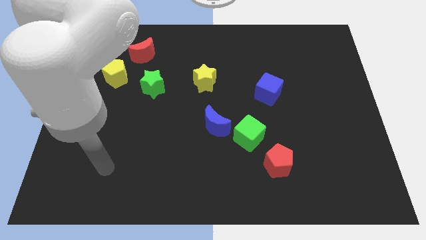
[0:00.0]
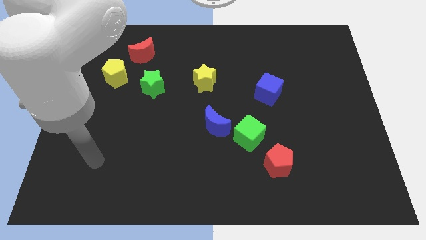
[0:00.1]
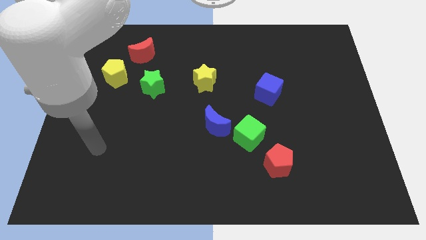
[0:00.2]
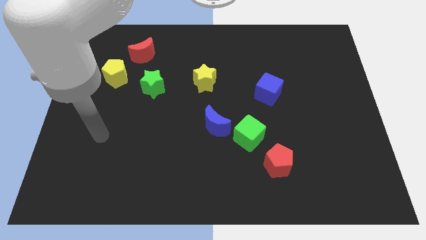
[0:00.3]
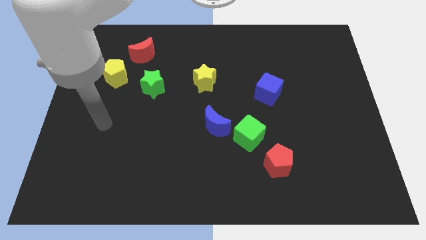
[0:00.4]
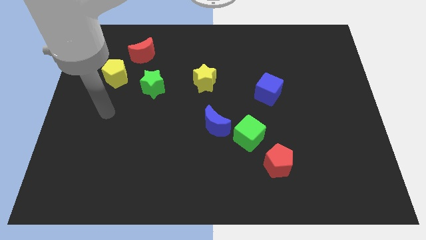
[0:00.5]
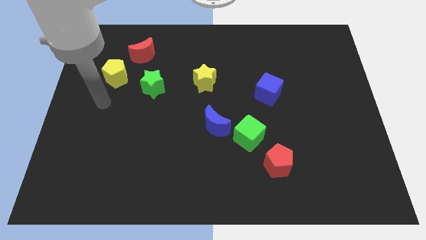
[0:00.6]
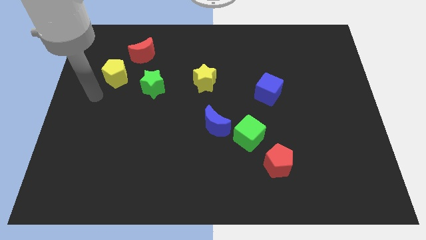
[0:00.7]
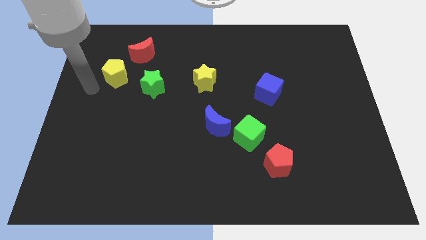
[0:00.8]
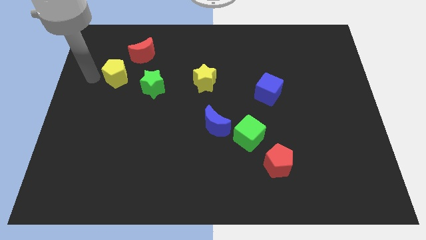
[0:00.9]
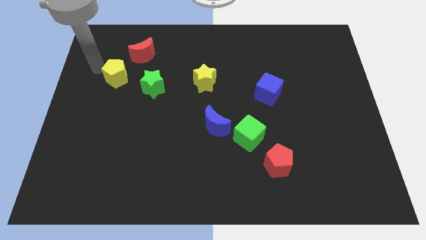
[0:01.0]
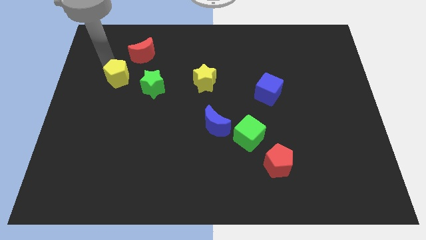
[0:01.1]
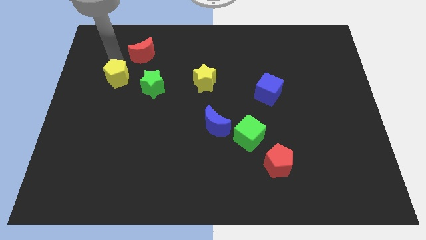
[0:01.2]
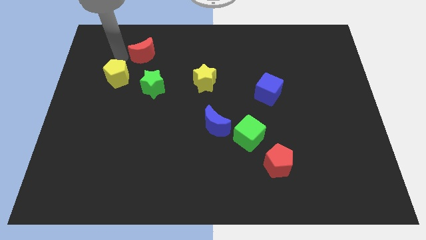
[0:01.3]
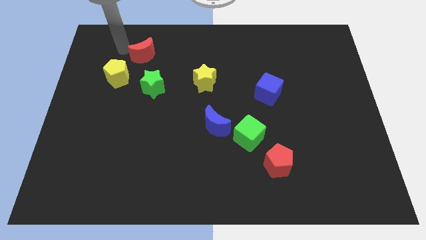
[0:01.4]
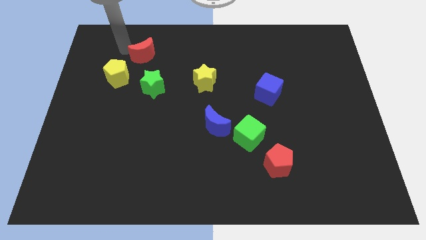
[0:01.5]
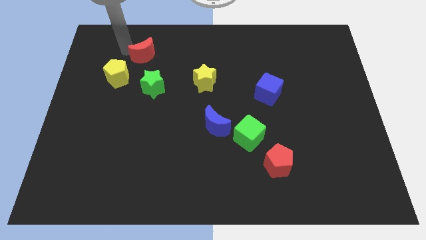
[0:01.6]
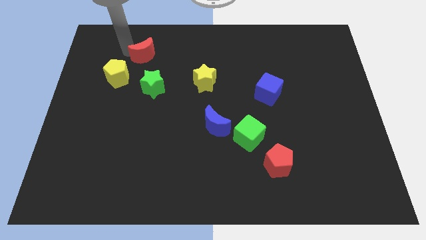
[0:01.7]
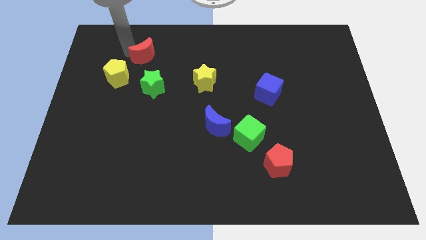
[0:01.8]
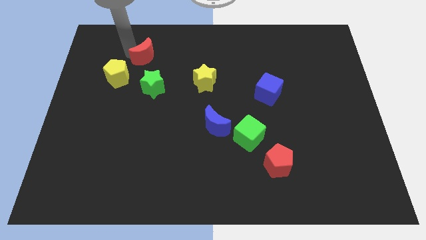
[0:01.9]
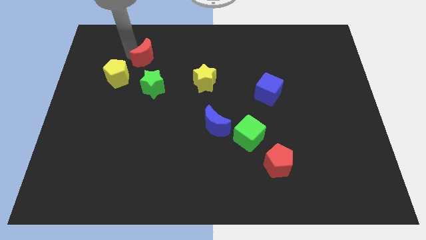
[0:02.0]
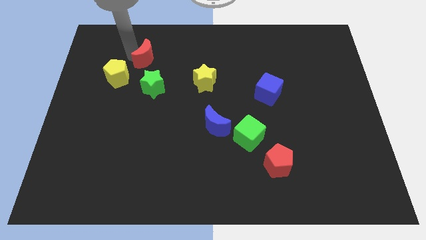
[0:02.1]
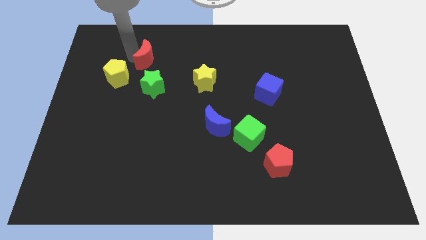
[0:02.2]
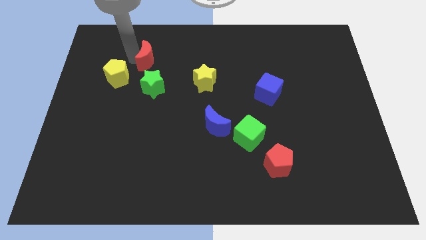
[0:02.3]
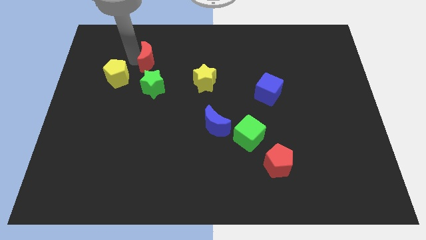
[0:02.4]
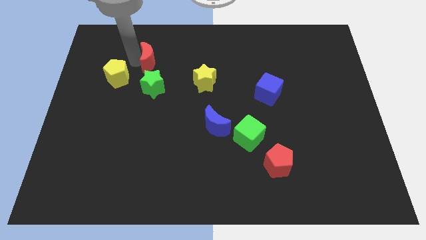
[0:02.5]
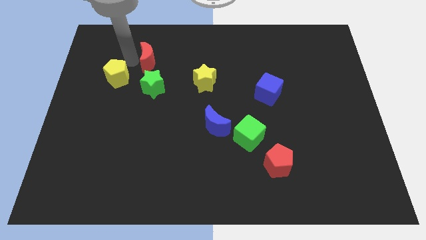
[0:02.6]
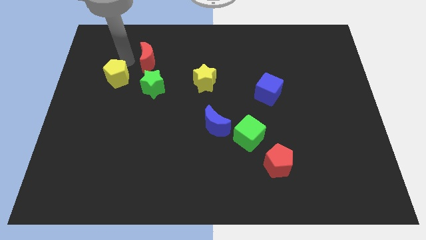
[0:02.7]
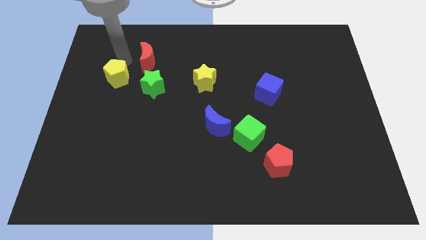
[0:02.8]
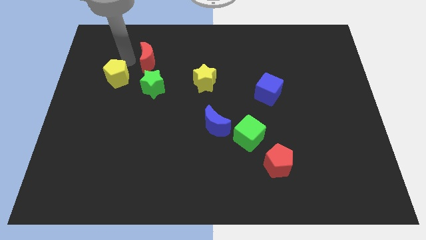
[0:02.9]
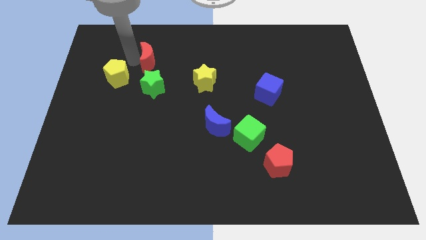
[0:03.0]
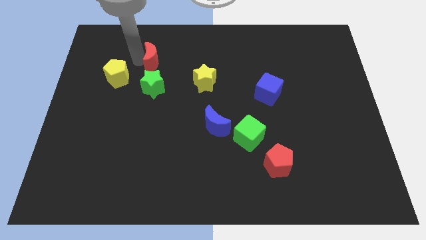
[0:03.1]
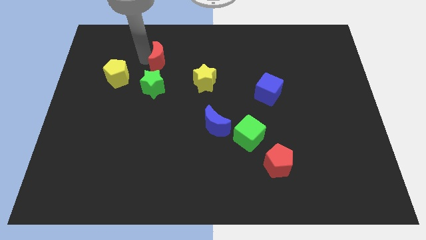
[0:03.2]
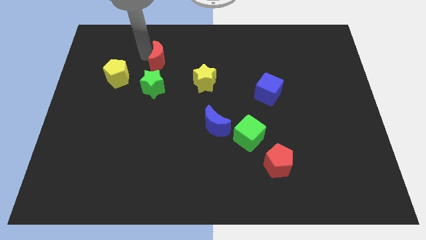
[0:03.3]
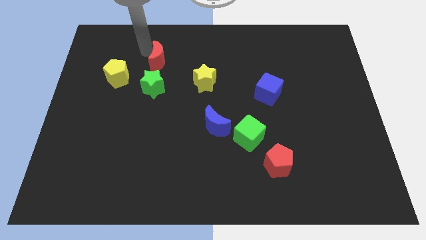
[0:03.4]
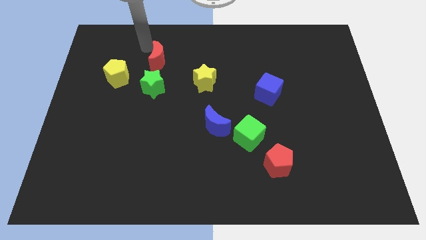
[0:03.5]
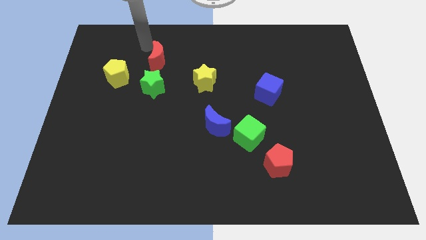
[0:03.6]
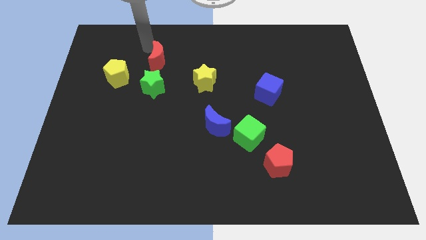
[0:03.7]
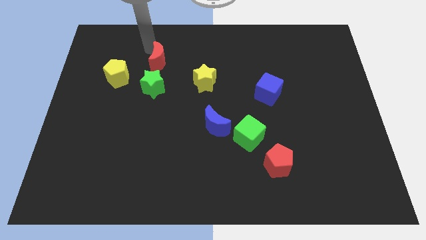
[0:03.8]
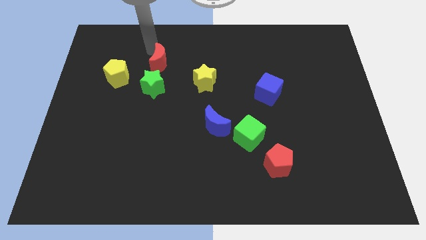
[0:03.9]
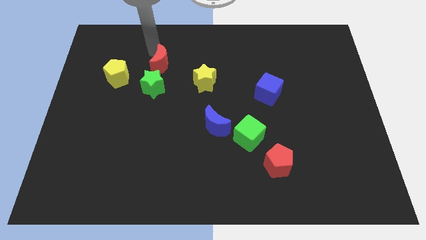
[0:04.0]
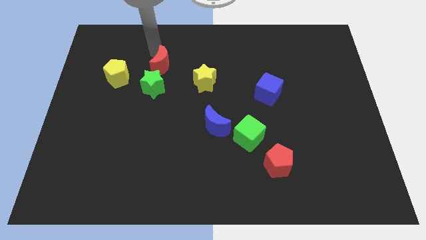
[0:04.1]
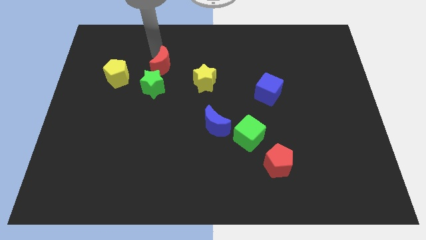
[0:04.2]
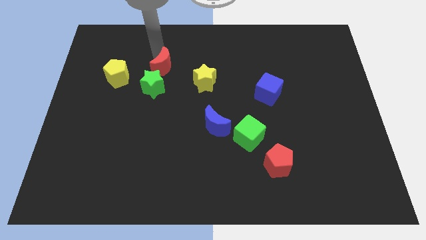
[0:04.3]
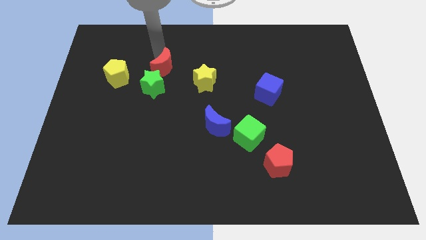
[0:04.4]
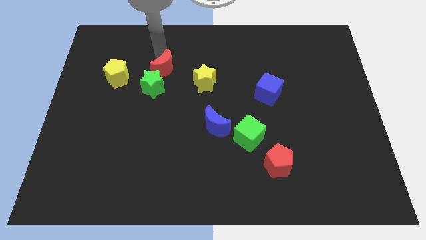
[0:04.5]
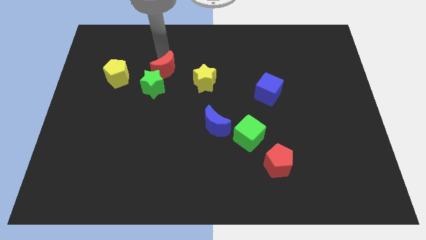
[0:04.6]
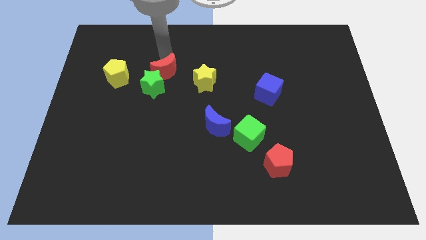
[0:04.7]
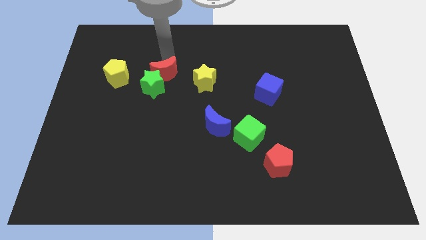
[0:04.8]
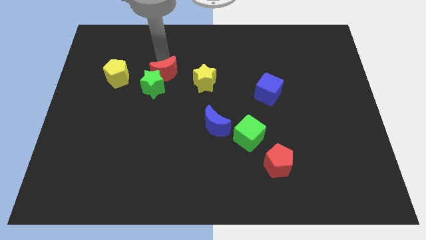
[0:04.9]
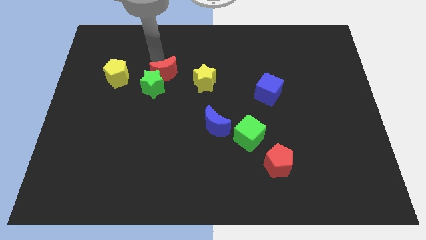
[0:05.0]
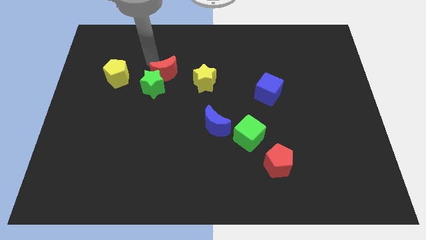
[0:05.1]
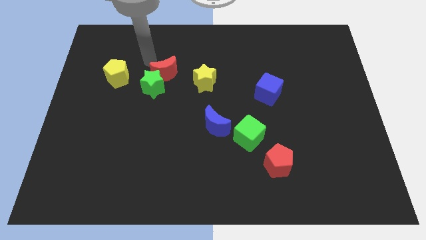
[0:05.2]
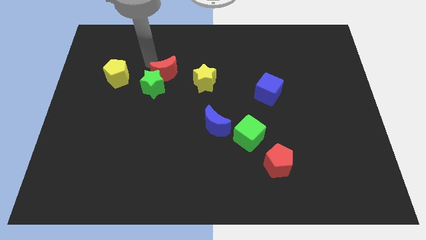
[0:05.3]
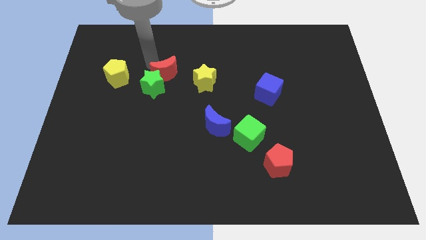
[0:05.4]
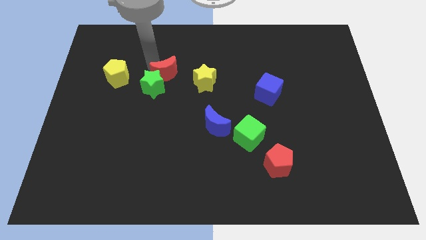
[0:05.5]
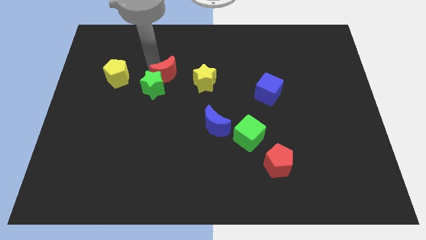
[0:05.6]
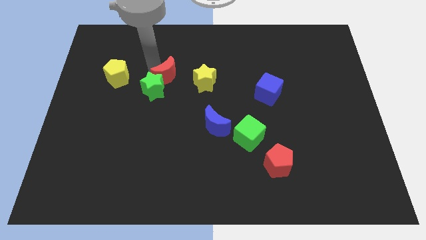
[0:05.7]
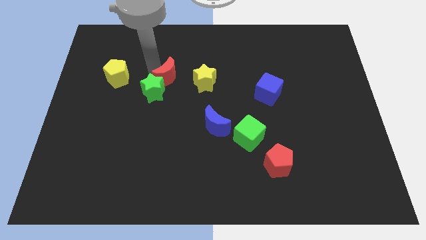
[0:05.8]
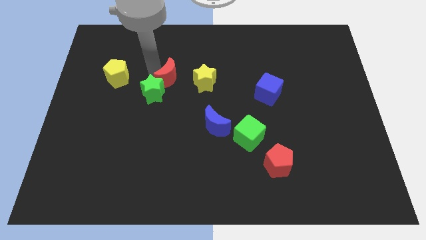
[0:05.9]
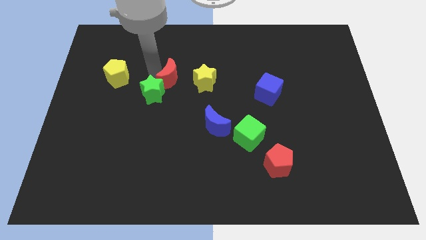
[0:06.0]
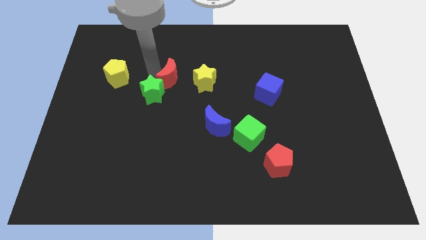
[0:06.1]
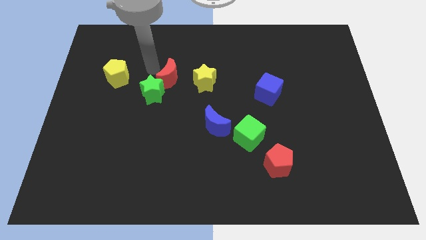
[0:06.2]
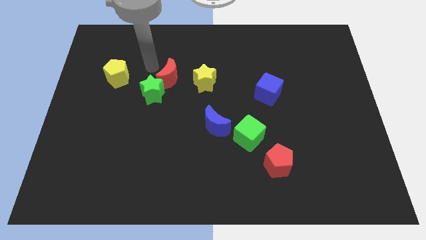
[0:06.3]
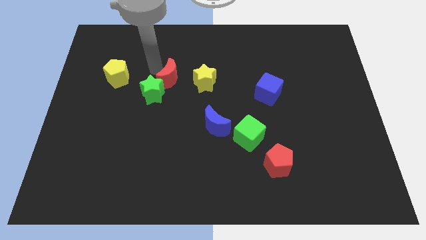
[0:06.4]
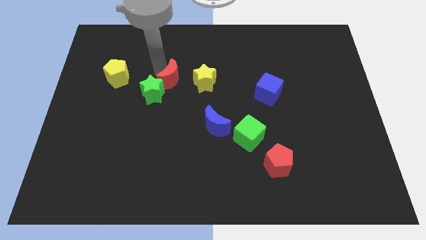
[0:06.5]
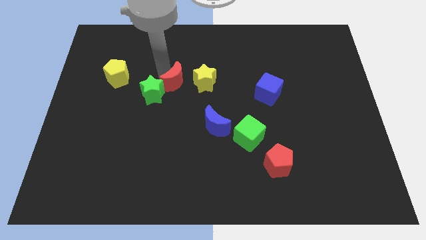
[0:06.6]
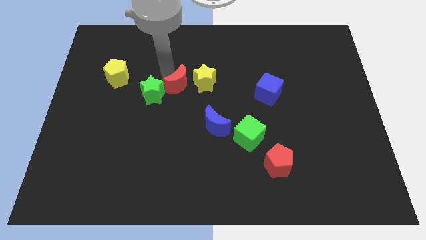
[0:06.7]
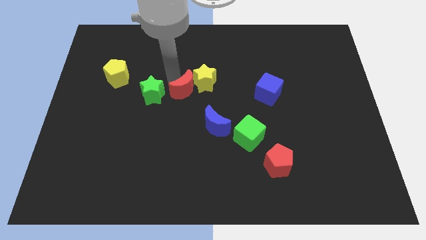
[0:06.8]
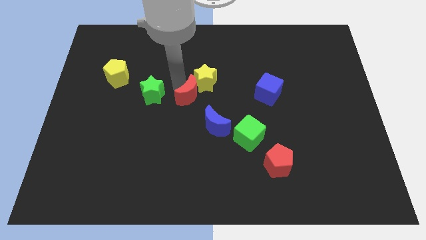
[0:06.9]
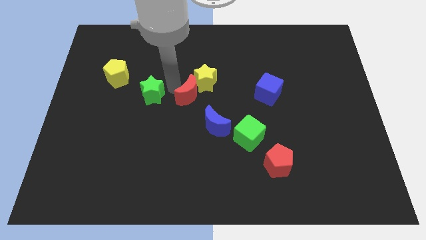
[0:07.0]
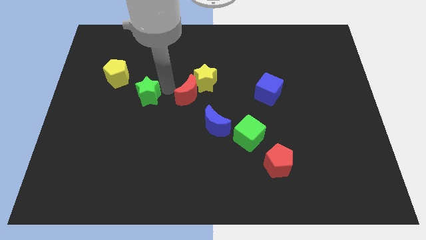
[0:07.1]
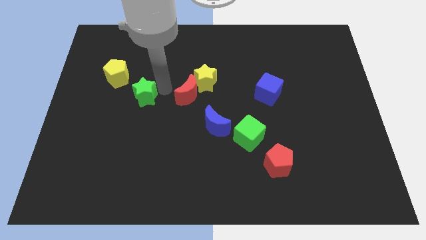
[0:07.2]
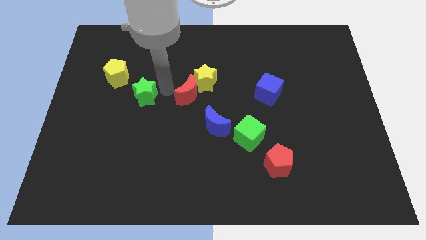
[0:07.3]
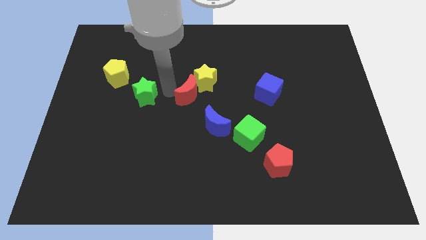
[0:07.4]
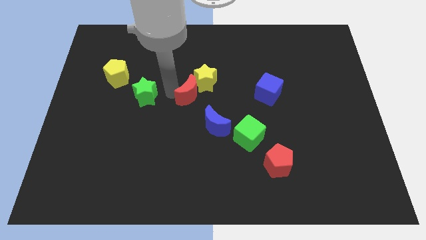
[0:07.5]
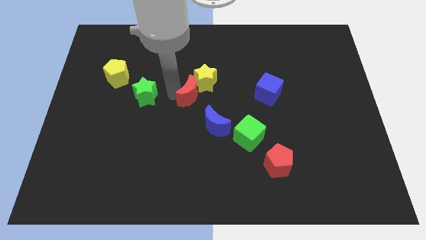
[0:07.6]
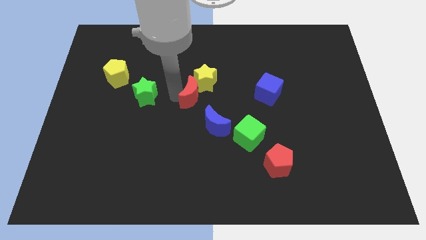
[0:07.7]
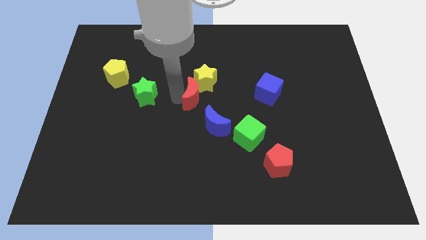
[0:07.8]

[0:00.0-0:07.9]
slide the red moon downwards and then to the right

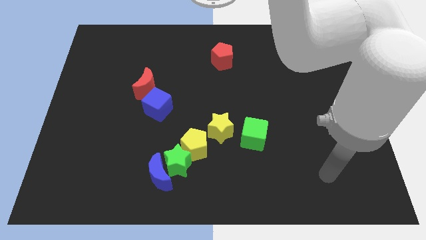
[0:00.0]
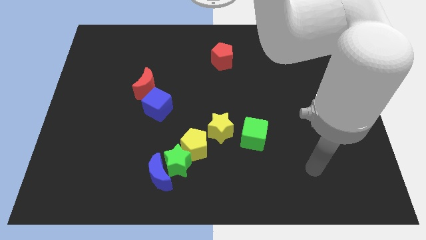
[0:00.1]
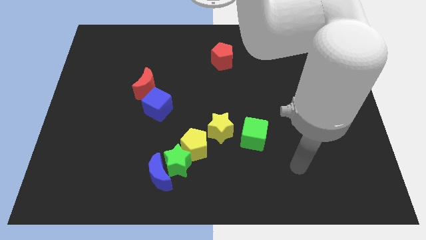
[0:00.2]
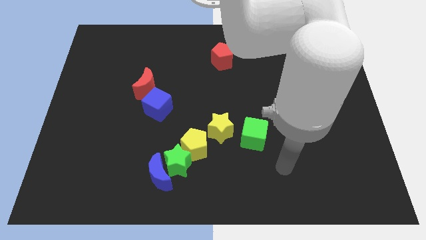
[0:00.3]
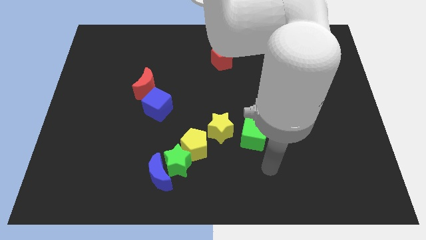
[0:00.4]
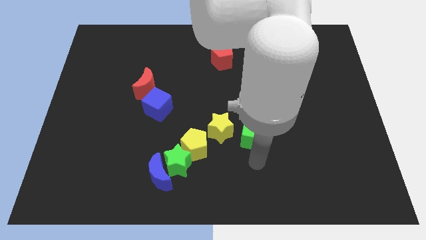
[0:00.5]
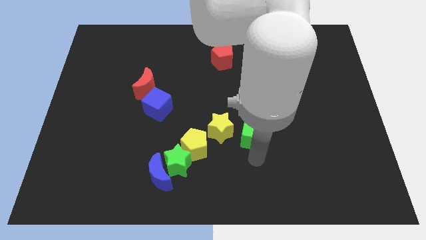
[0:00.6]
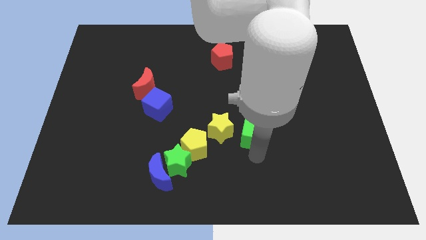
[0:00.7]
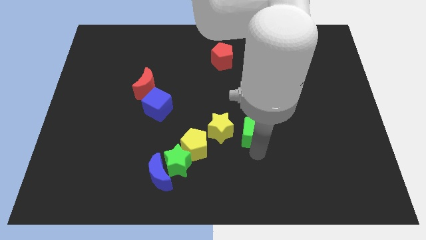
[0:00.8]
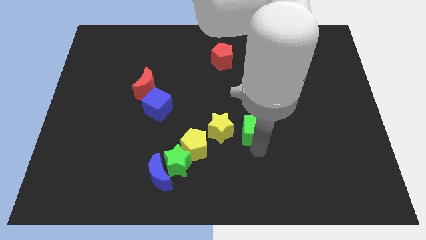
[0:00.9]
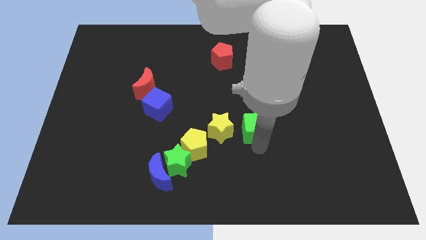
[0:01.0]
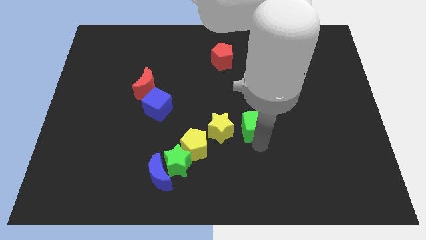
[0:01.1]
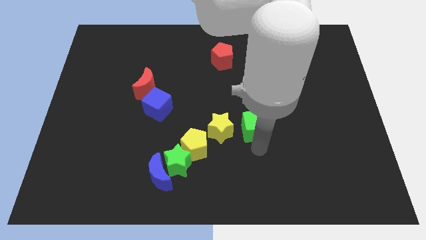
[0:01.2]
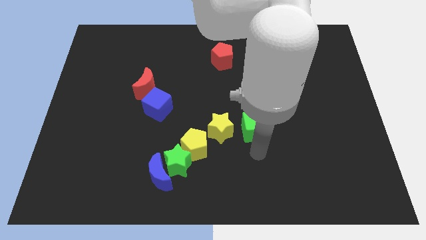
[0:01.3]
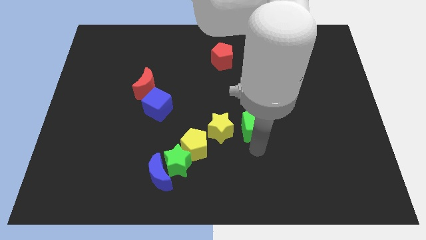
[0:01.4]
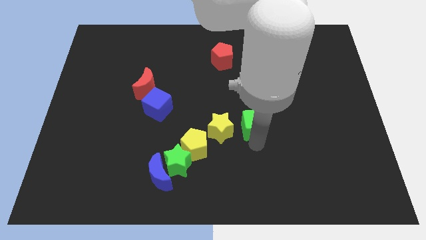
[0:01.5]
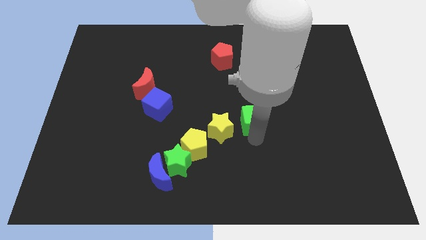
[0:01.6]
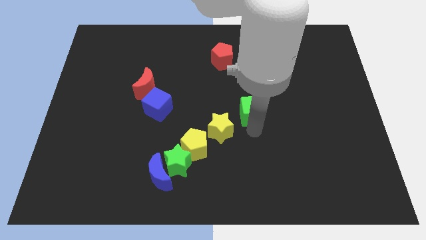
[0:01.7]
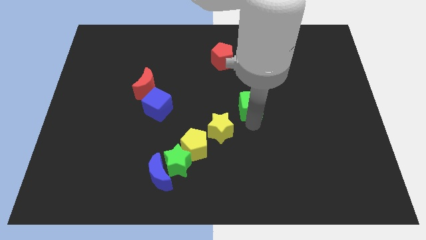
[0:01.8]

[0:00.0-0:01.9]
slide the green cube up a little bit
